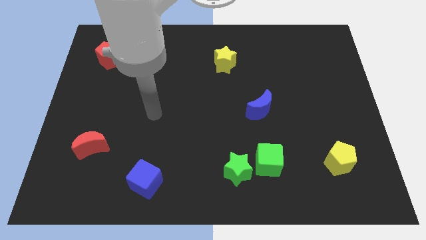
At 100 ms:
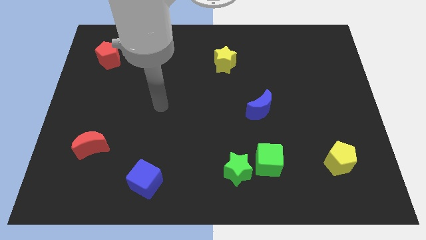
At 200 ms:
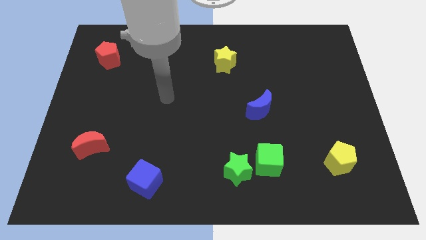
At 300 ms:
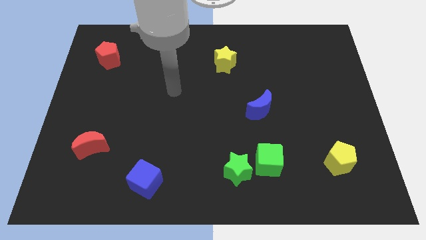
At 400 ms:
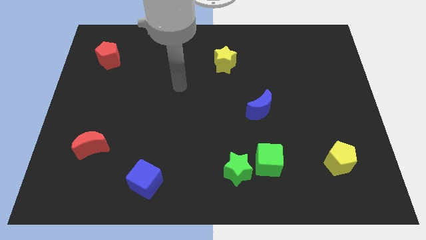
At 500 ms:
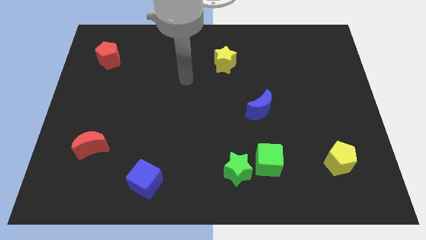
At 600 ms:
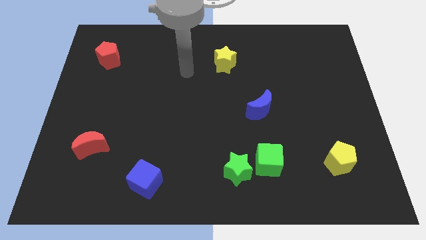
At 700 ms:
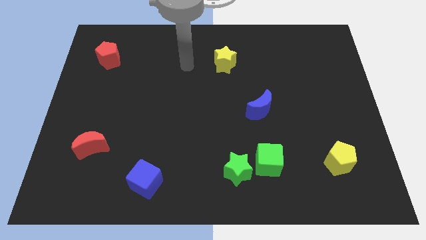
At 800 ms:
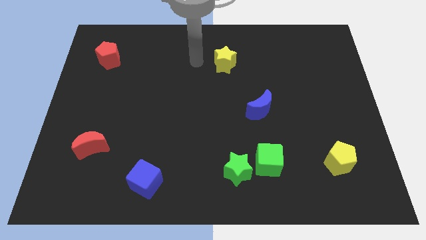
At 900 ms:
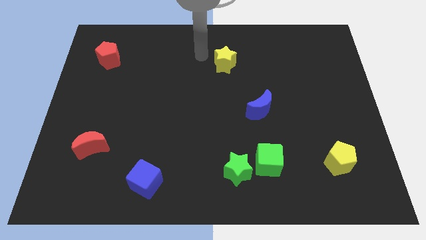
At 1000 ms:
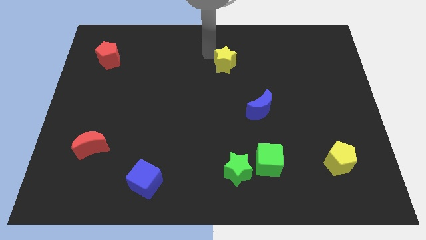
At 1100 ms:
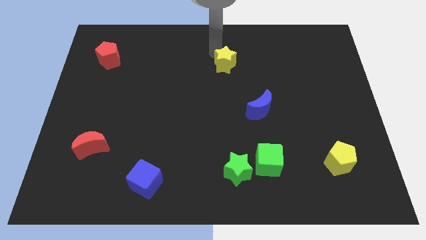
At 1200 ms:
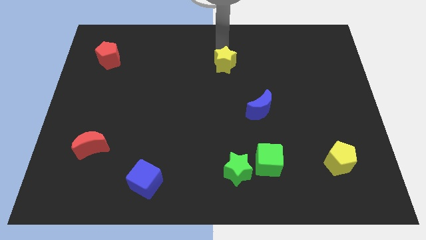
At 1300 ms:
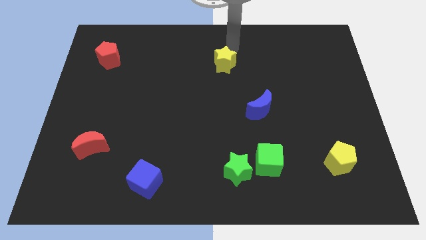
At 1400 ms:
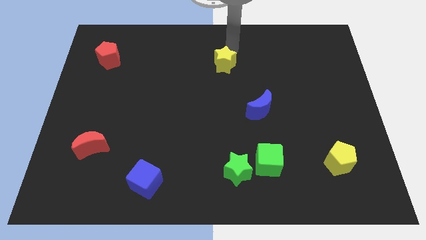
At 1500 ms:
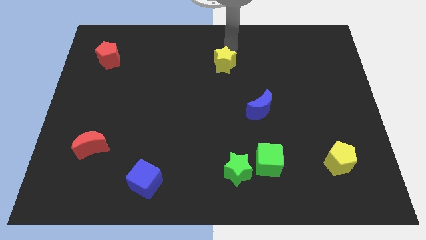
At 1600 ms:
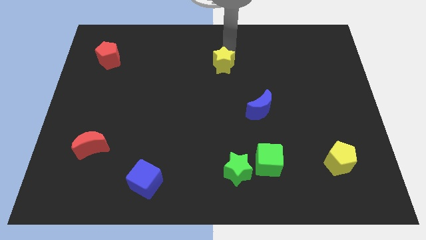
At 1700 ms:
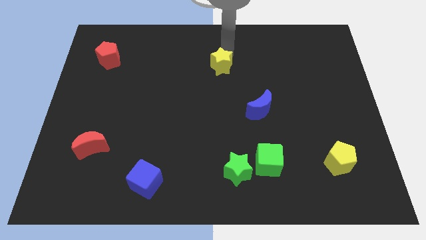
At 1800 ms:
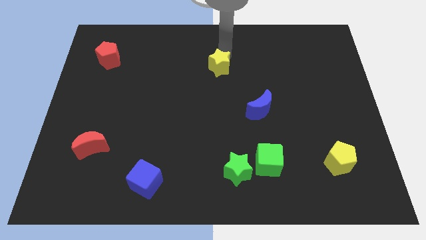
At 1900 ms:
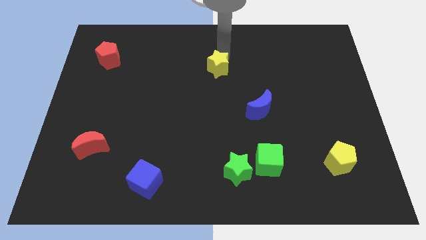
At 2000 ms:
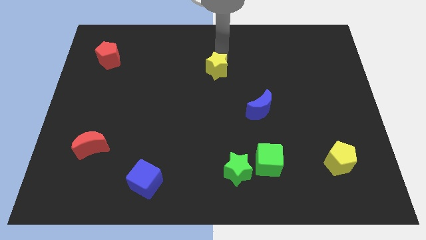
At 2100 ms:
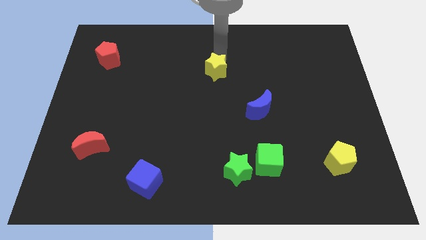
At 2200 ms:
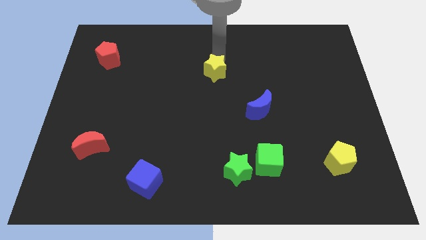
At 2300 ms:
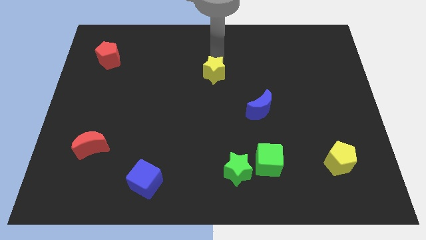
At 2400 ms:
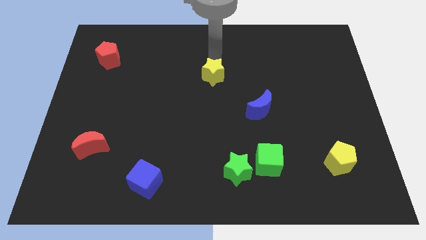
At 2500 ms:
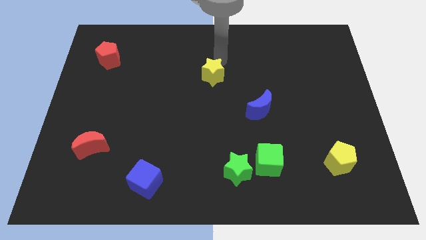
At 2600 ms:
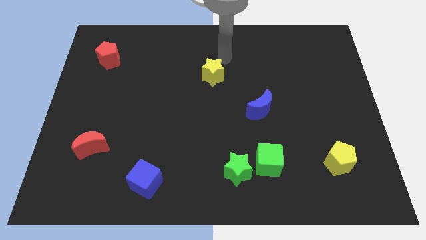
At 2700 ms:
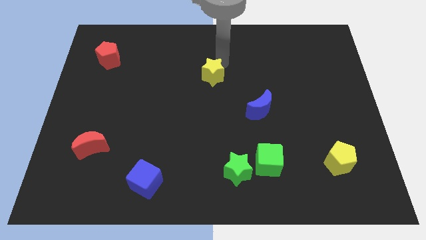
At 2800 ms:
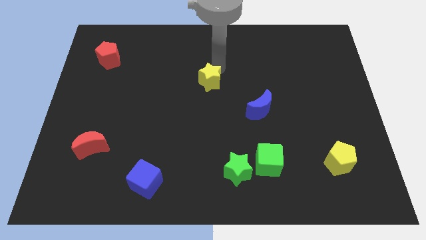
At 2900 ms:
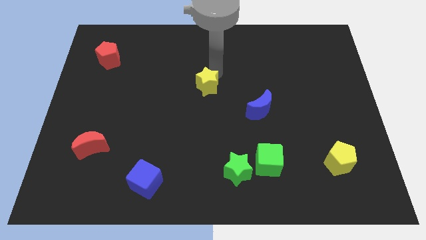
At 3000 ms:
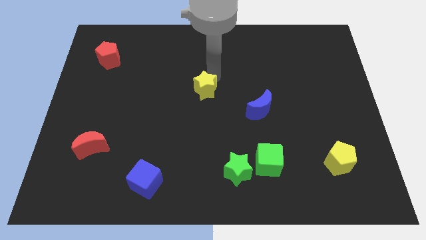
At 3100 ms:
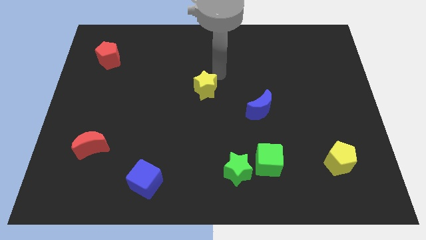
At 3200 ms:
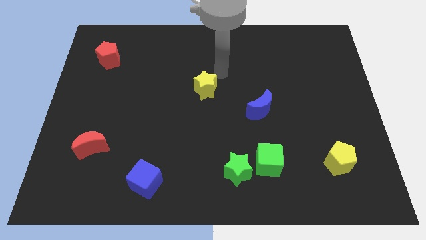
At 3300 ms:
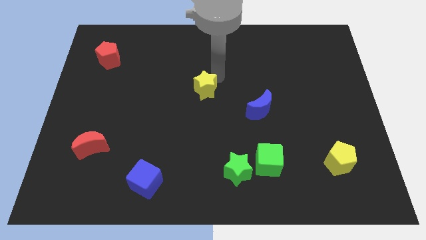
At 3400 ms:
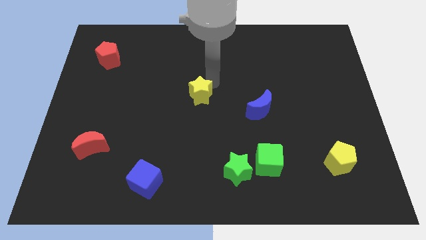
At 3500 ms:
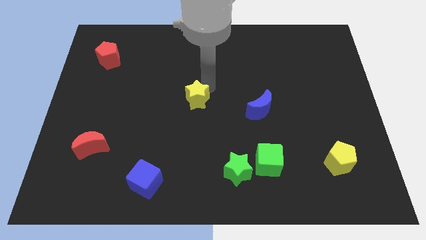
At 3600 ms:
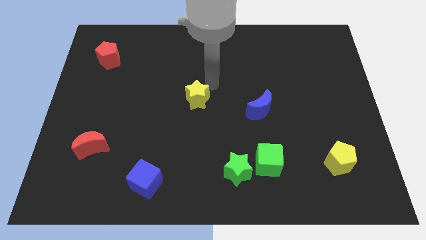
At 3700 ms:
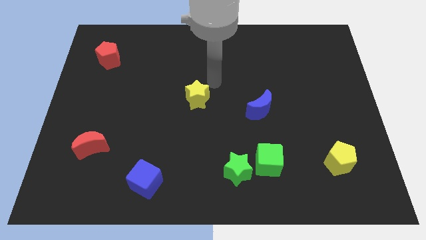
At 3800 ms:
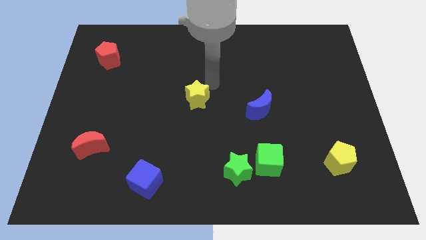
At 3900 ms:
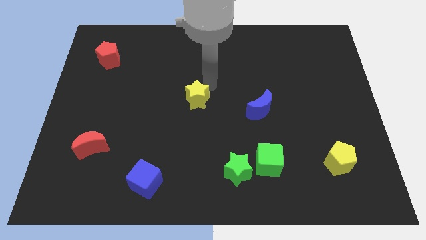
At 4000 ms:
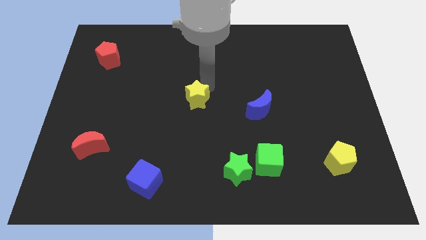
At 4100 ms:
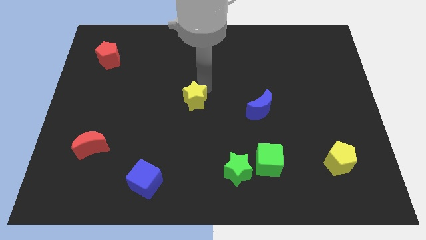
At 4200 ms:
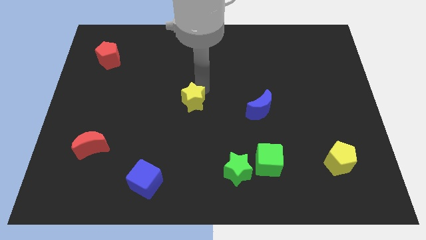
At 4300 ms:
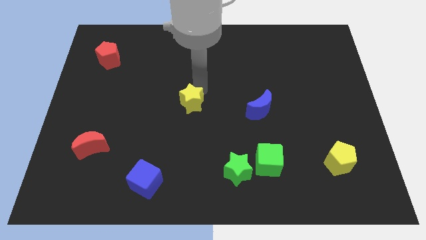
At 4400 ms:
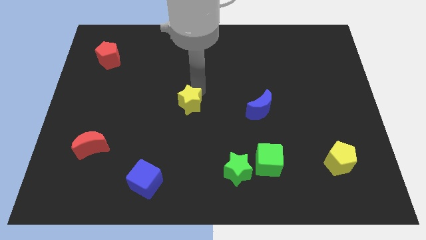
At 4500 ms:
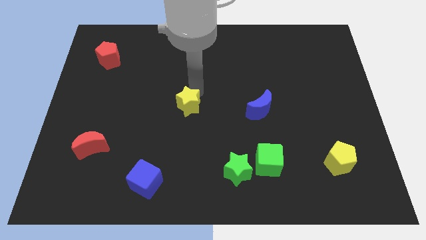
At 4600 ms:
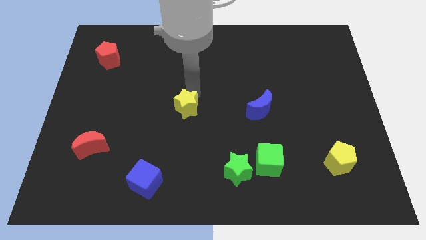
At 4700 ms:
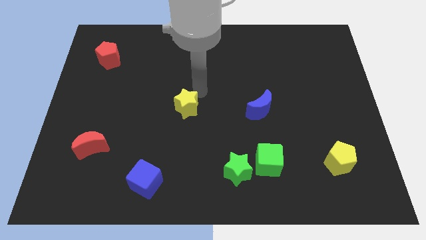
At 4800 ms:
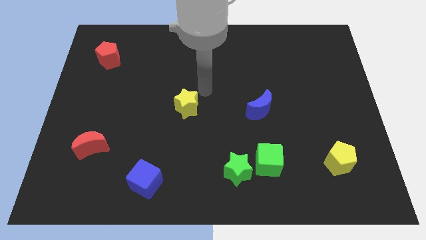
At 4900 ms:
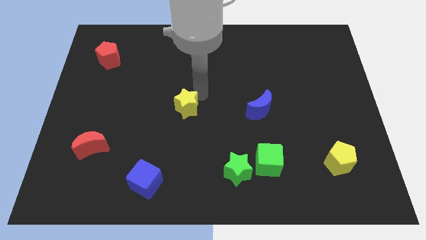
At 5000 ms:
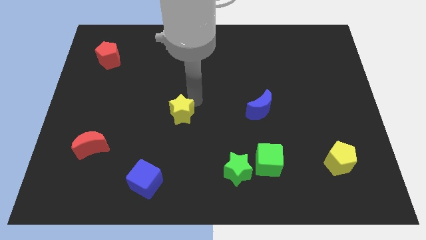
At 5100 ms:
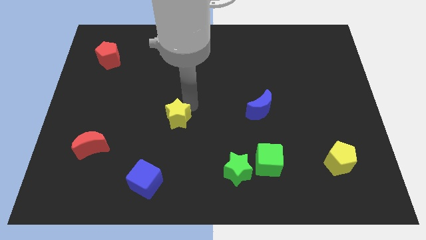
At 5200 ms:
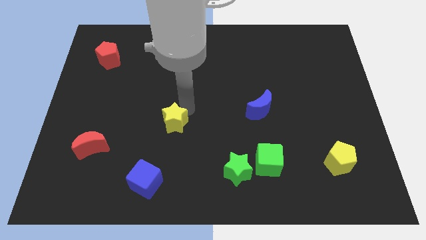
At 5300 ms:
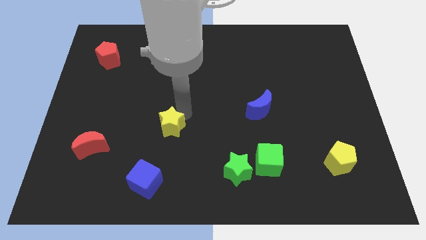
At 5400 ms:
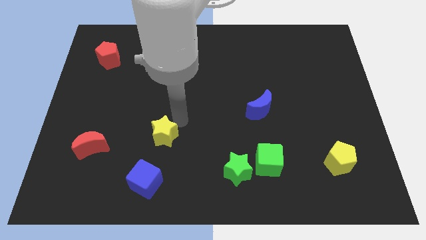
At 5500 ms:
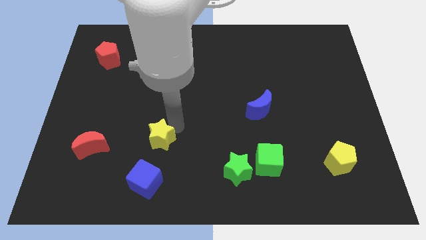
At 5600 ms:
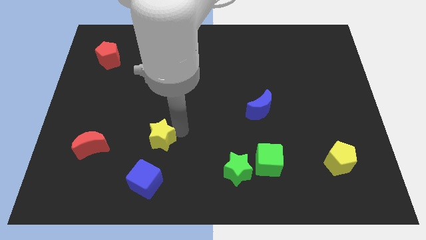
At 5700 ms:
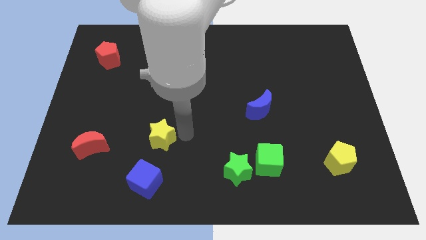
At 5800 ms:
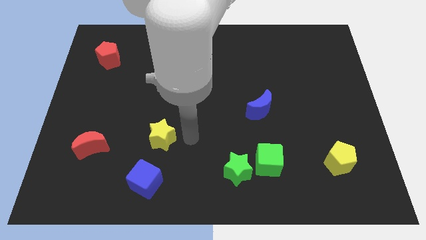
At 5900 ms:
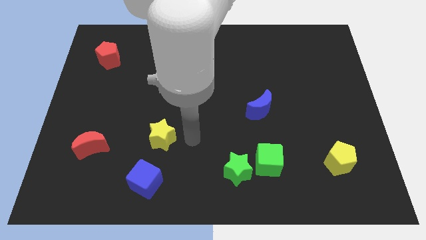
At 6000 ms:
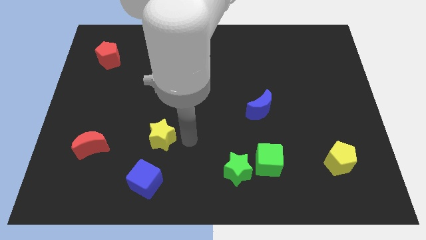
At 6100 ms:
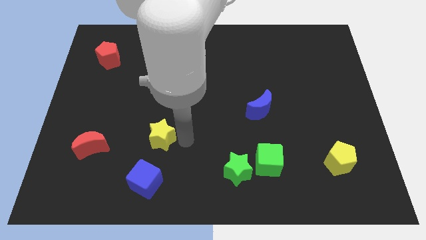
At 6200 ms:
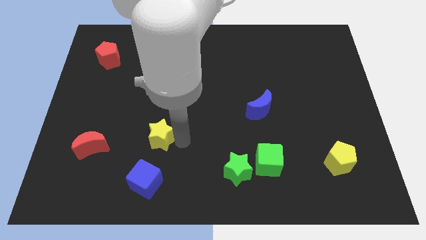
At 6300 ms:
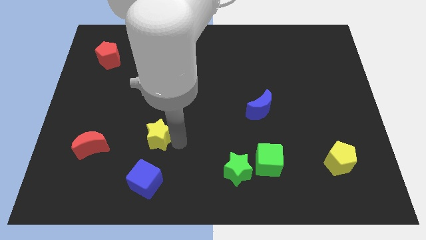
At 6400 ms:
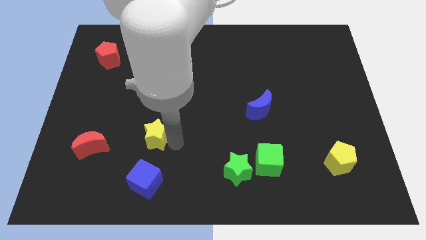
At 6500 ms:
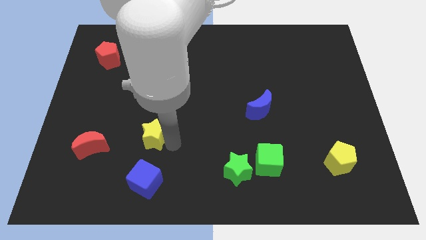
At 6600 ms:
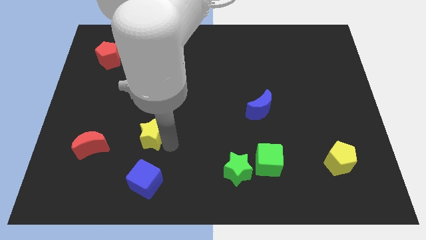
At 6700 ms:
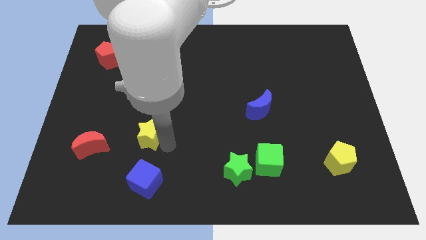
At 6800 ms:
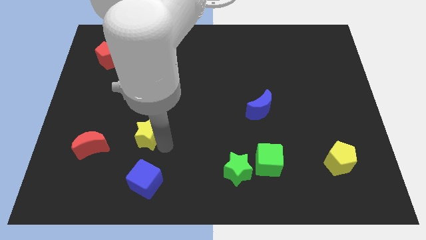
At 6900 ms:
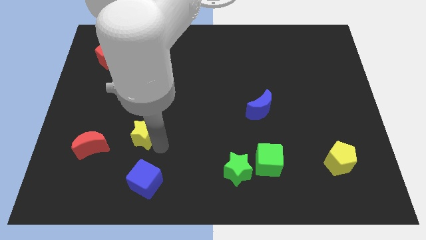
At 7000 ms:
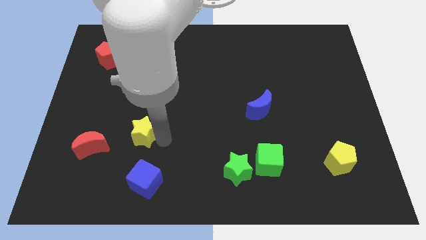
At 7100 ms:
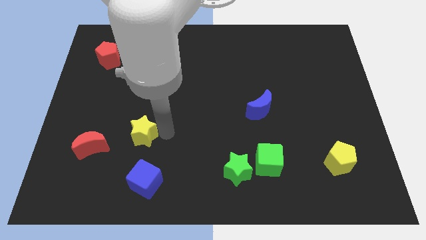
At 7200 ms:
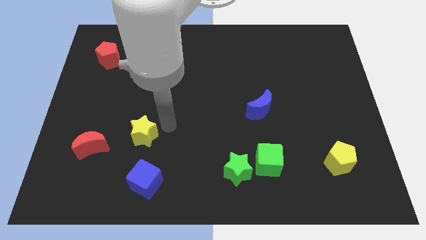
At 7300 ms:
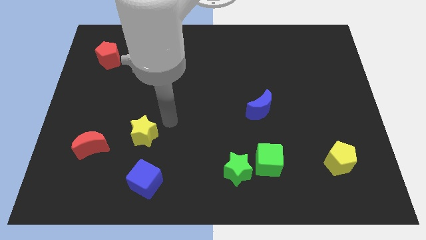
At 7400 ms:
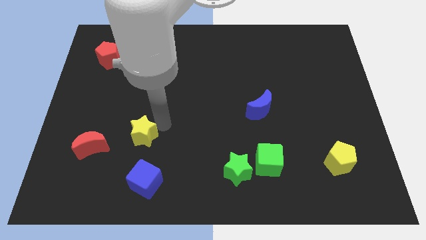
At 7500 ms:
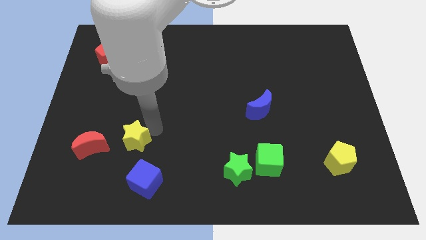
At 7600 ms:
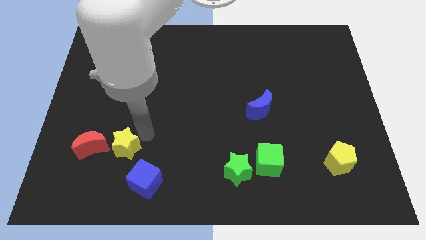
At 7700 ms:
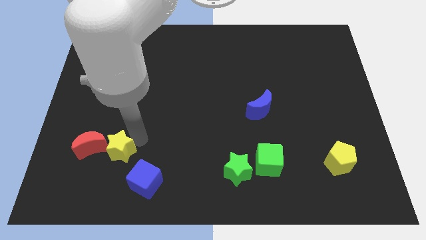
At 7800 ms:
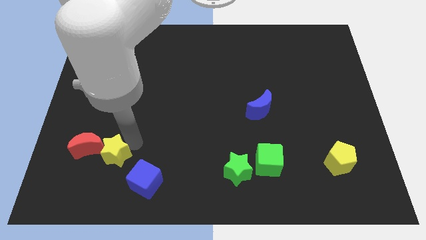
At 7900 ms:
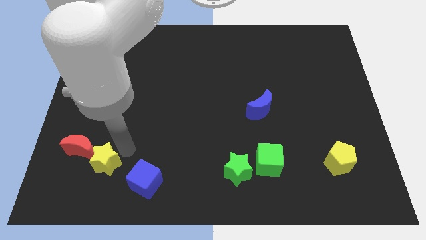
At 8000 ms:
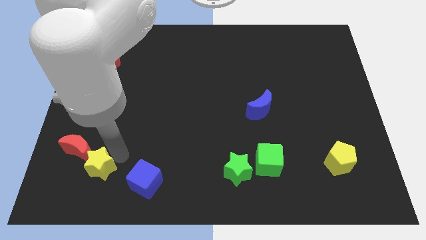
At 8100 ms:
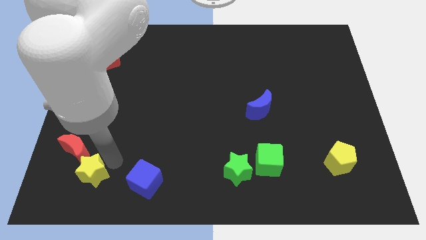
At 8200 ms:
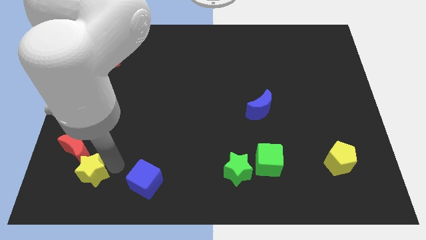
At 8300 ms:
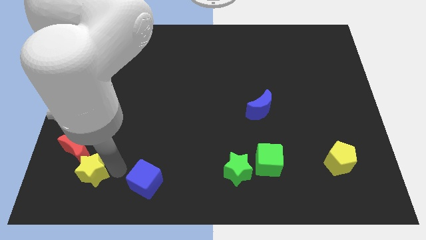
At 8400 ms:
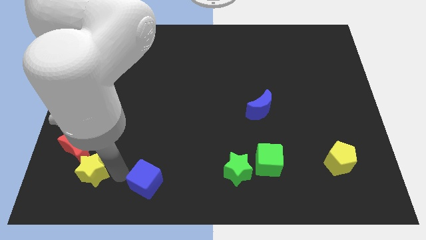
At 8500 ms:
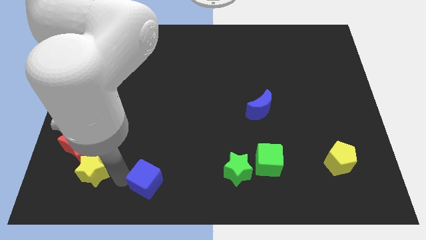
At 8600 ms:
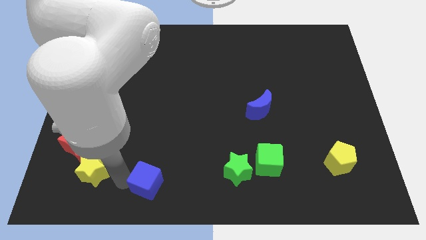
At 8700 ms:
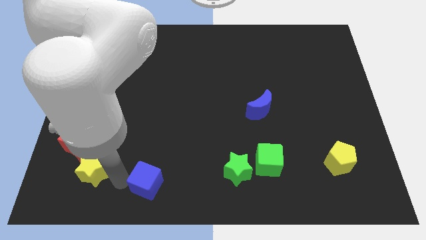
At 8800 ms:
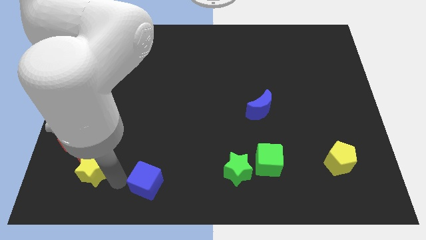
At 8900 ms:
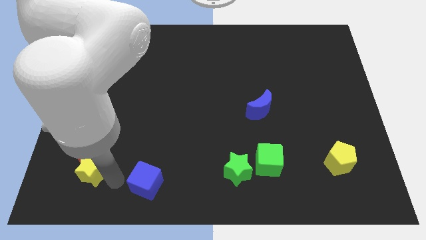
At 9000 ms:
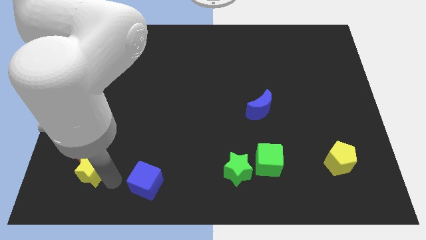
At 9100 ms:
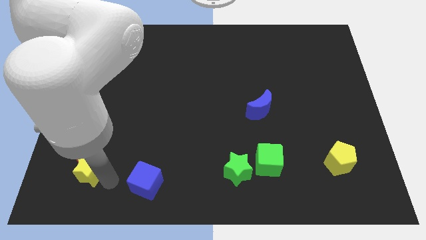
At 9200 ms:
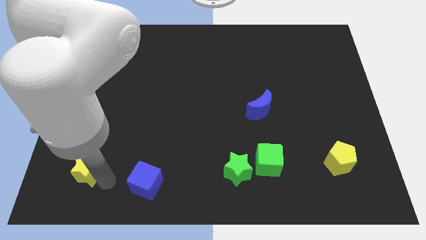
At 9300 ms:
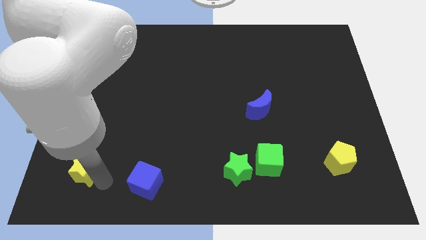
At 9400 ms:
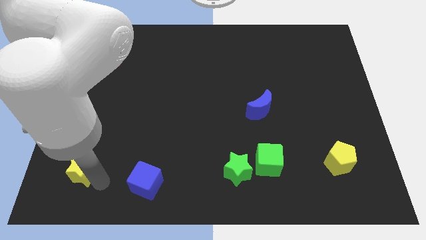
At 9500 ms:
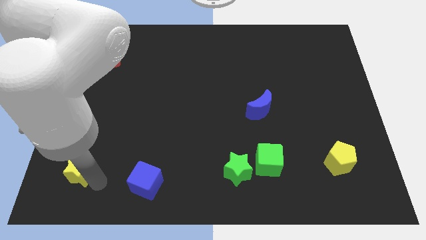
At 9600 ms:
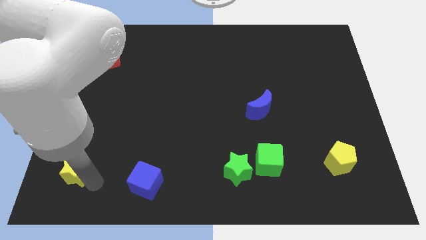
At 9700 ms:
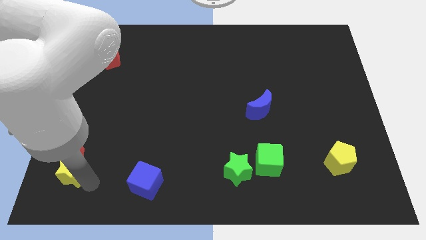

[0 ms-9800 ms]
put the yellow star to the lower left corner
